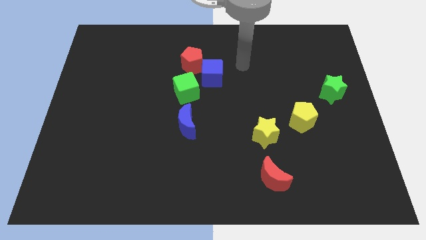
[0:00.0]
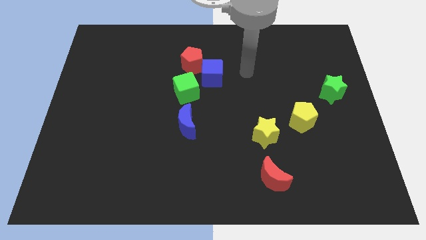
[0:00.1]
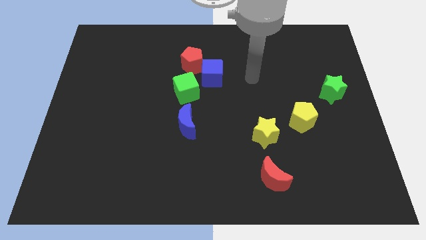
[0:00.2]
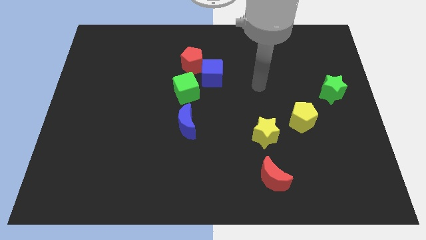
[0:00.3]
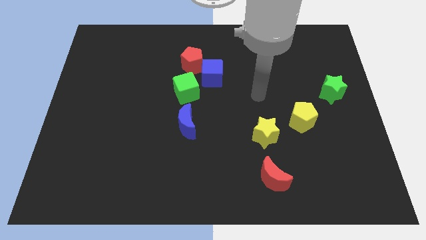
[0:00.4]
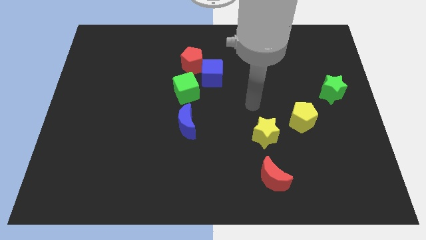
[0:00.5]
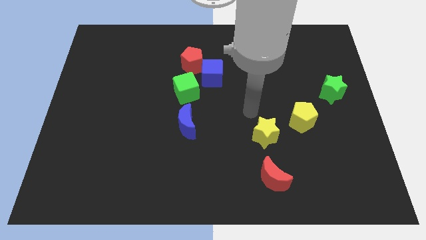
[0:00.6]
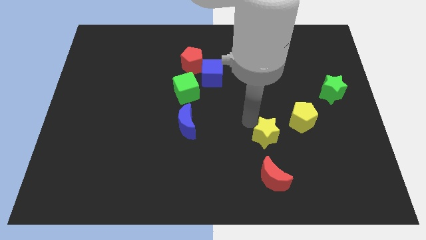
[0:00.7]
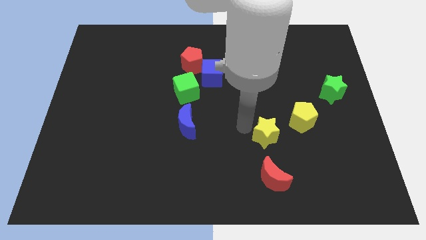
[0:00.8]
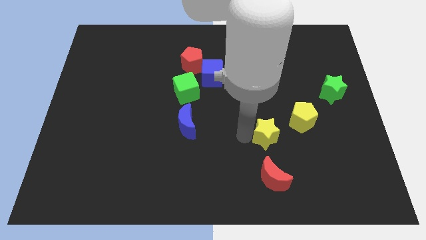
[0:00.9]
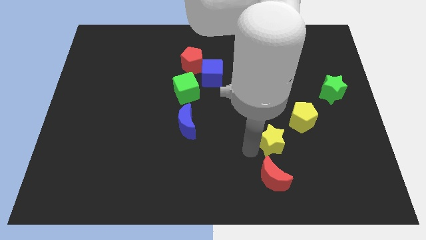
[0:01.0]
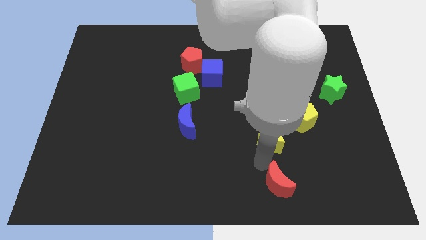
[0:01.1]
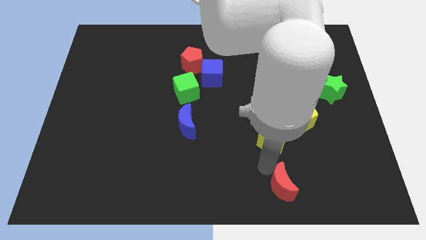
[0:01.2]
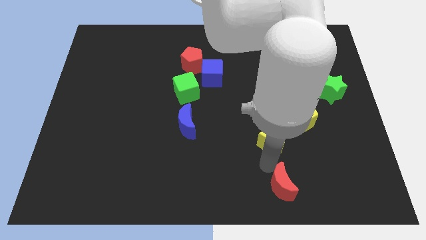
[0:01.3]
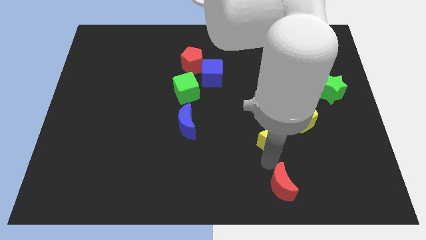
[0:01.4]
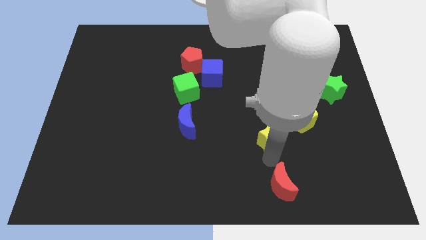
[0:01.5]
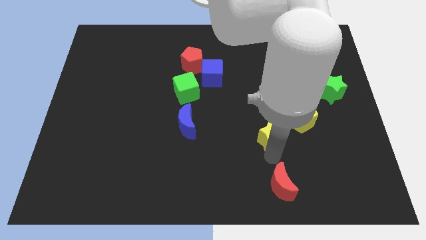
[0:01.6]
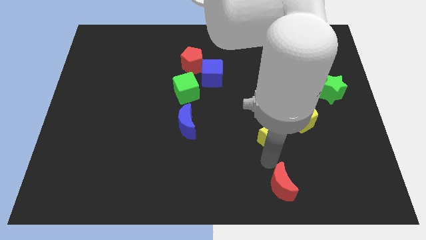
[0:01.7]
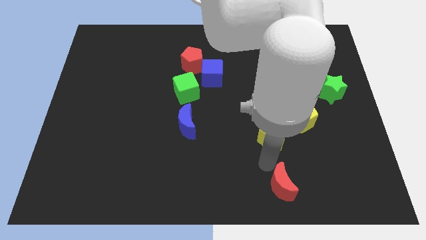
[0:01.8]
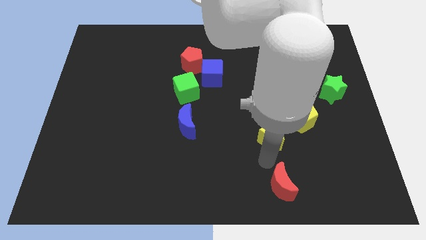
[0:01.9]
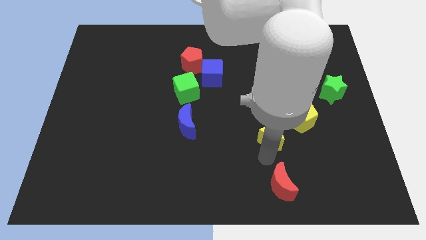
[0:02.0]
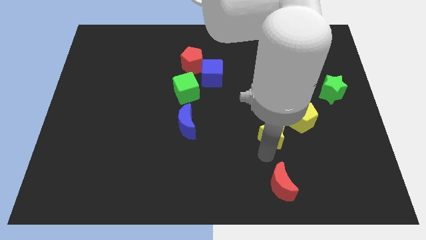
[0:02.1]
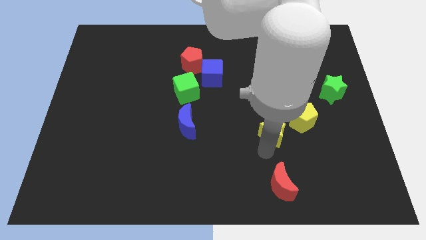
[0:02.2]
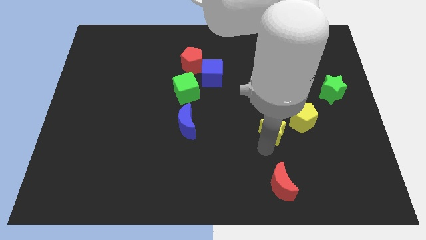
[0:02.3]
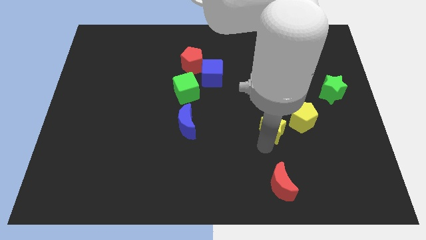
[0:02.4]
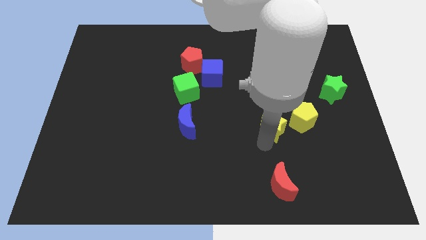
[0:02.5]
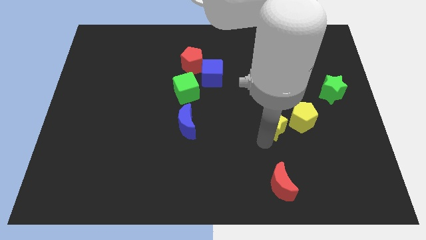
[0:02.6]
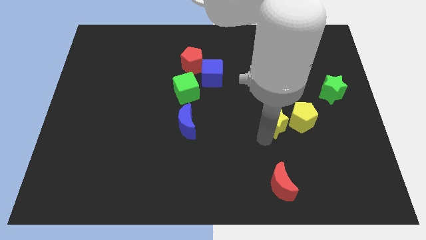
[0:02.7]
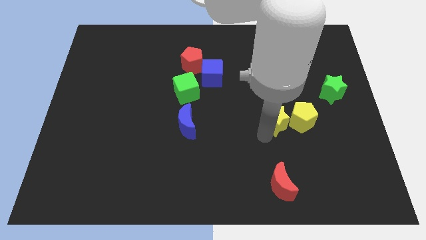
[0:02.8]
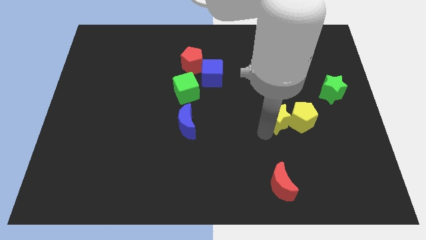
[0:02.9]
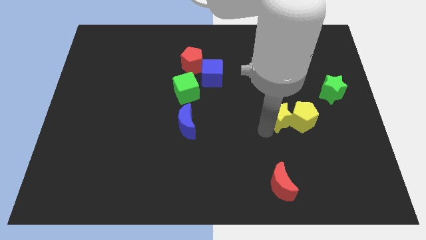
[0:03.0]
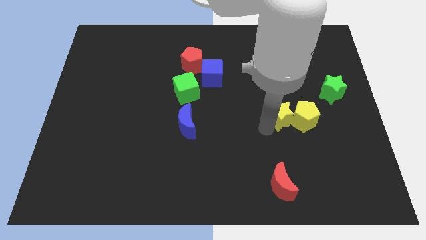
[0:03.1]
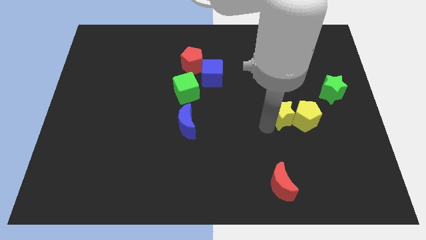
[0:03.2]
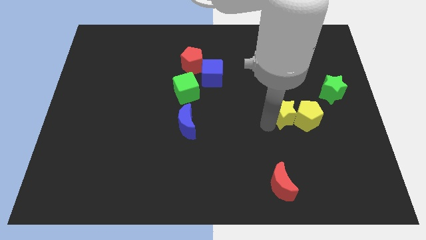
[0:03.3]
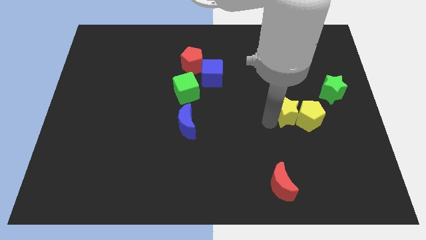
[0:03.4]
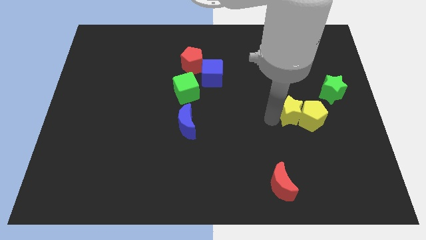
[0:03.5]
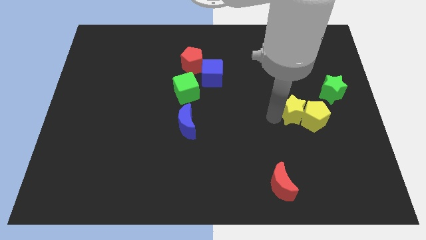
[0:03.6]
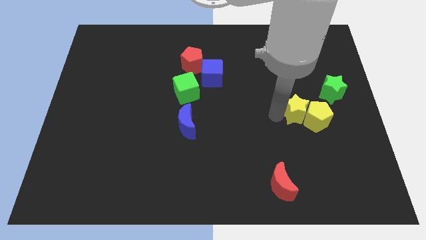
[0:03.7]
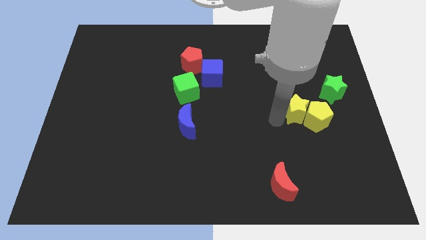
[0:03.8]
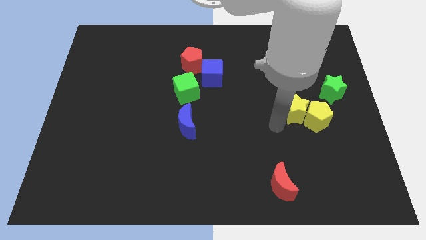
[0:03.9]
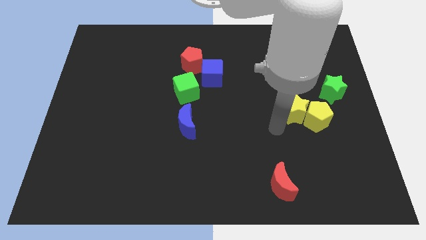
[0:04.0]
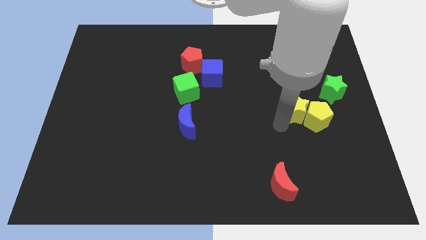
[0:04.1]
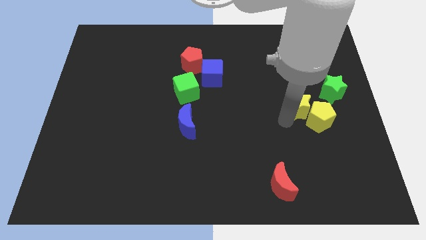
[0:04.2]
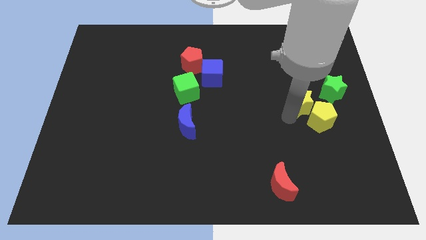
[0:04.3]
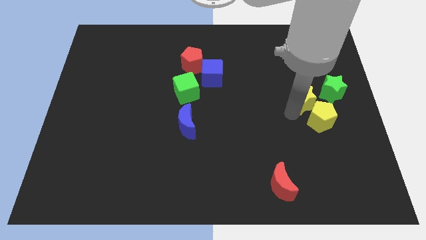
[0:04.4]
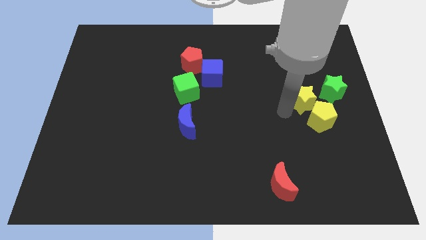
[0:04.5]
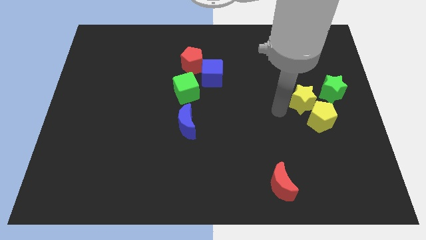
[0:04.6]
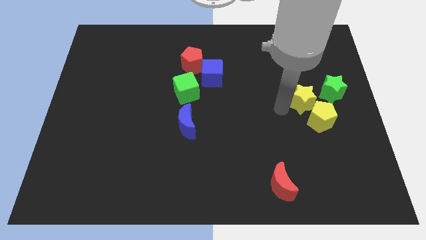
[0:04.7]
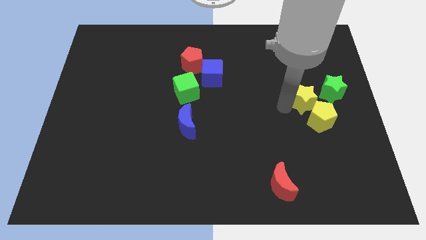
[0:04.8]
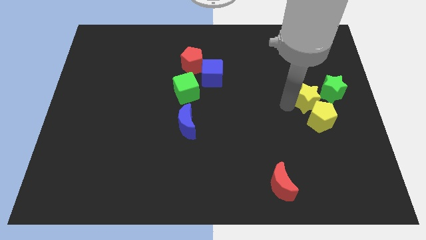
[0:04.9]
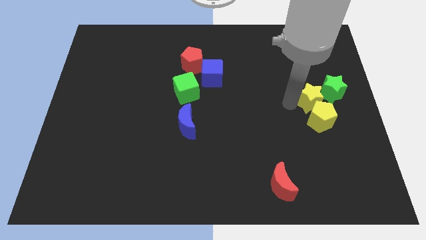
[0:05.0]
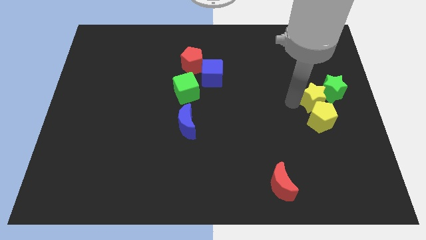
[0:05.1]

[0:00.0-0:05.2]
slide the yellow star to the green star

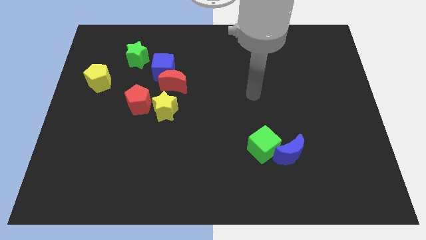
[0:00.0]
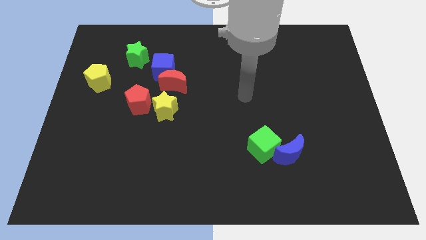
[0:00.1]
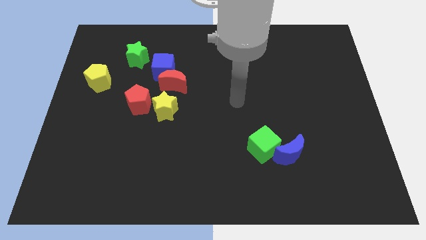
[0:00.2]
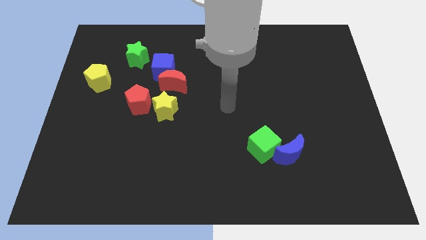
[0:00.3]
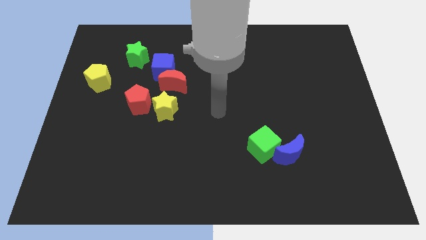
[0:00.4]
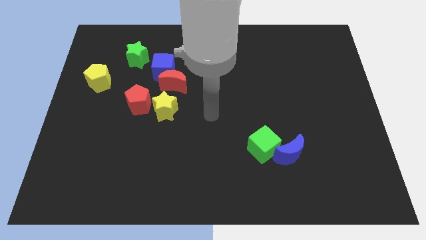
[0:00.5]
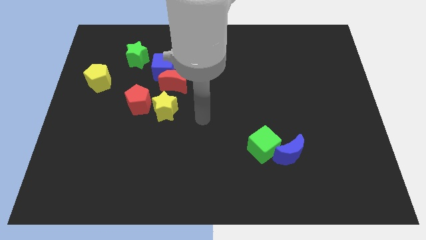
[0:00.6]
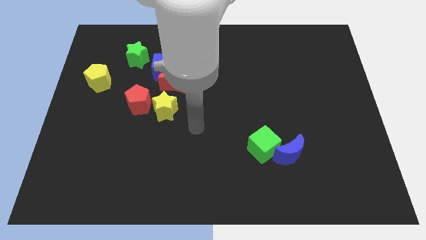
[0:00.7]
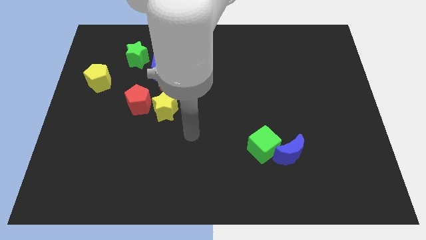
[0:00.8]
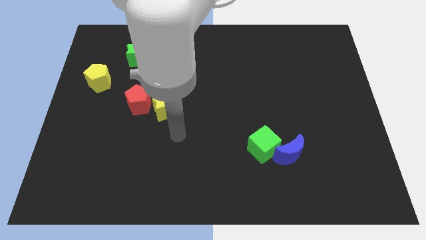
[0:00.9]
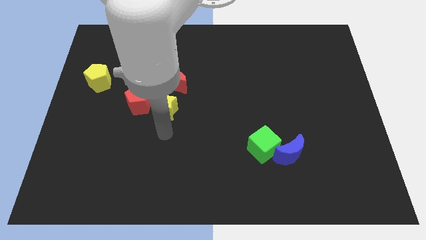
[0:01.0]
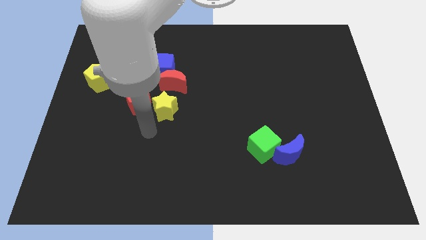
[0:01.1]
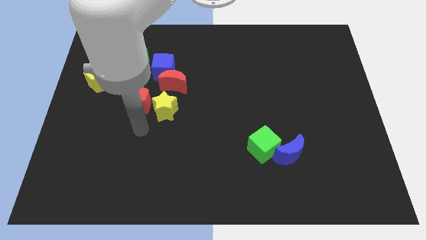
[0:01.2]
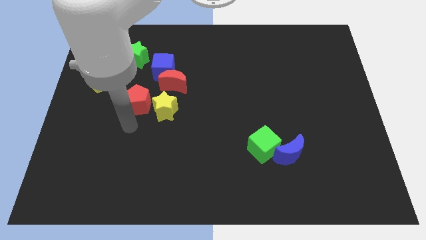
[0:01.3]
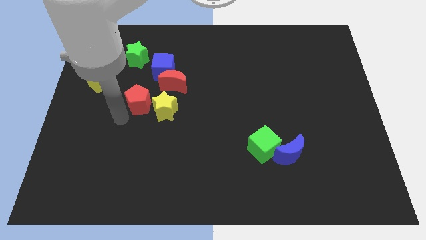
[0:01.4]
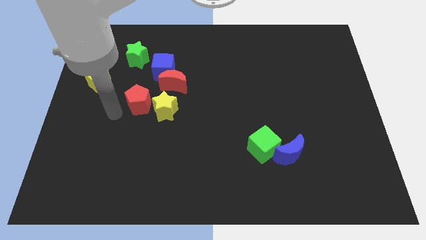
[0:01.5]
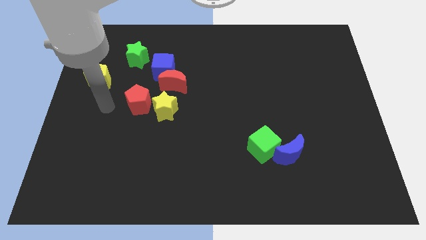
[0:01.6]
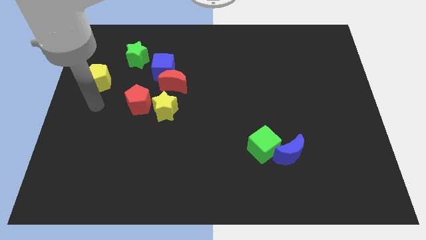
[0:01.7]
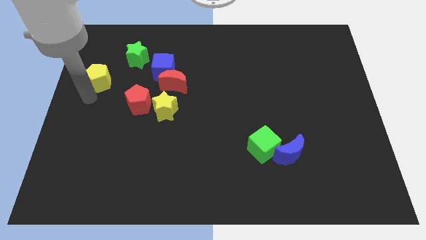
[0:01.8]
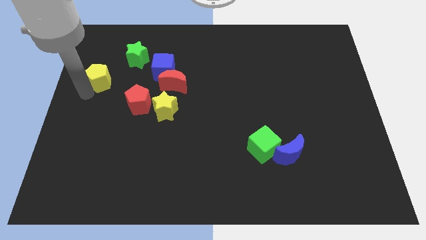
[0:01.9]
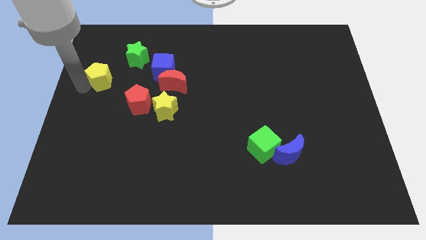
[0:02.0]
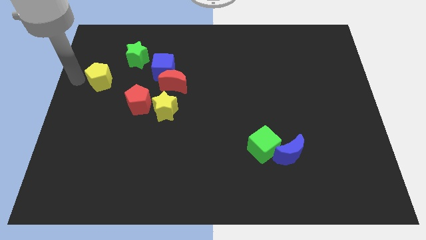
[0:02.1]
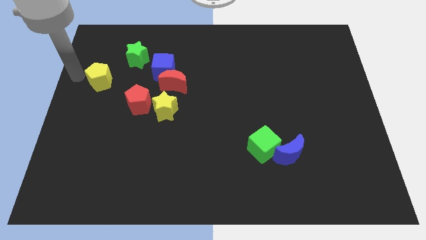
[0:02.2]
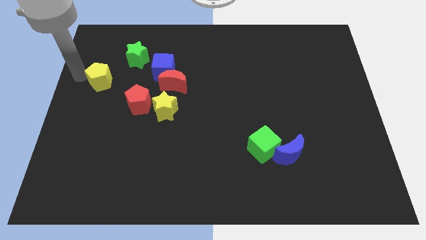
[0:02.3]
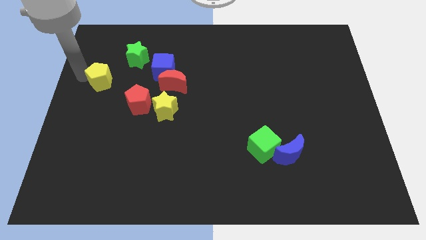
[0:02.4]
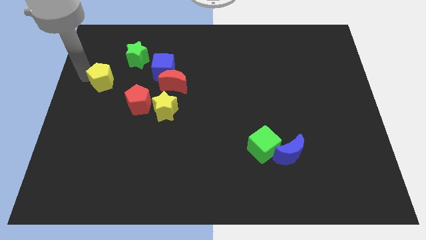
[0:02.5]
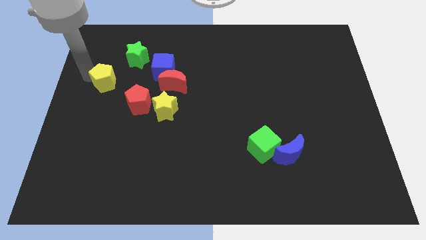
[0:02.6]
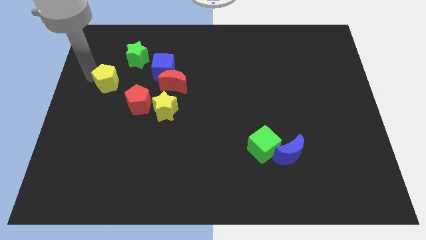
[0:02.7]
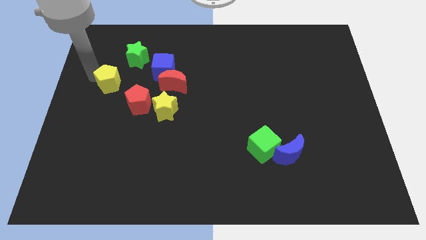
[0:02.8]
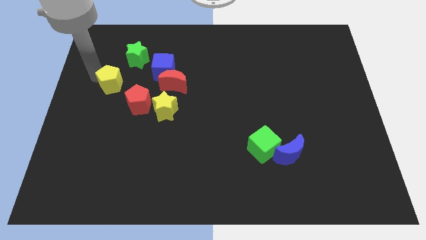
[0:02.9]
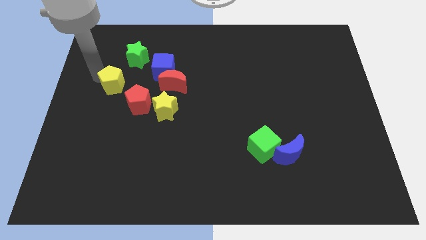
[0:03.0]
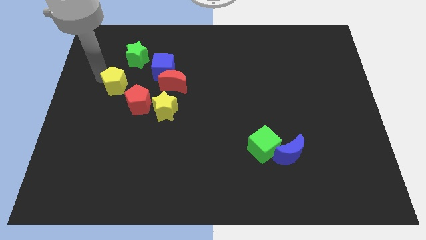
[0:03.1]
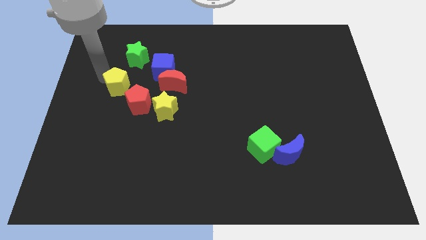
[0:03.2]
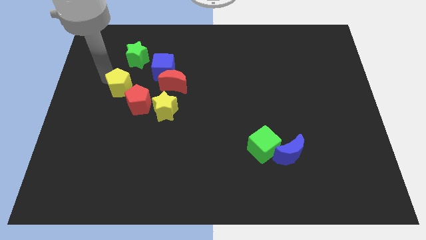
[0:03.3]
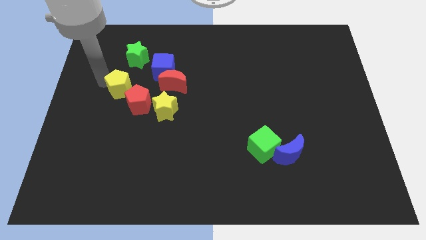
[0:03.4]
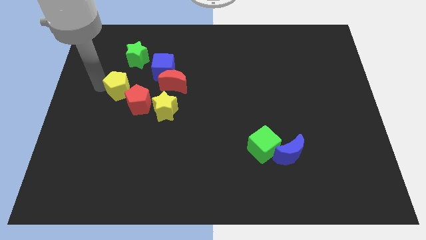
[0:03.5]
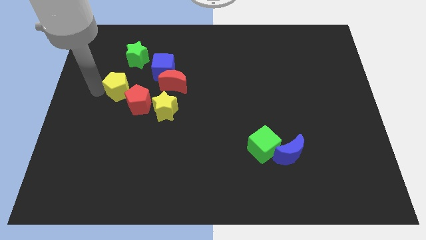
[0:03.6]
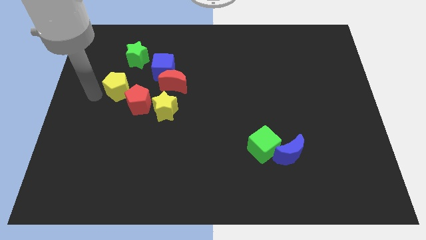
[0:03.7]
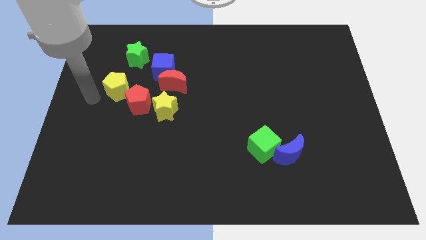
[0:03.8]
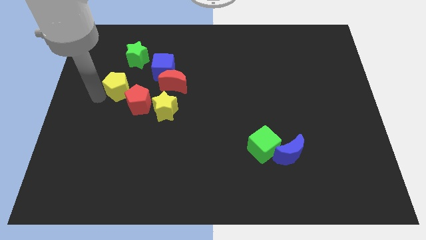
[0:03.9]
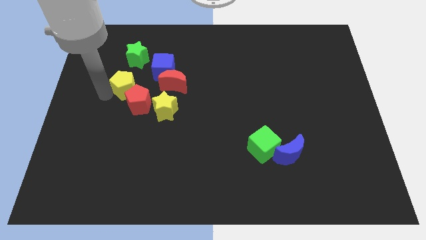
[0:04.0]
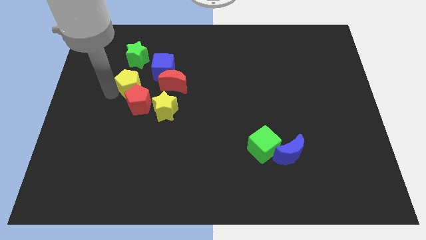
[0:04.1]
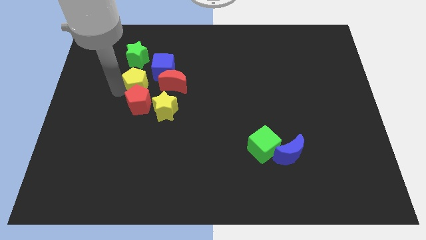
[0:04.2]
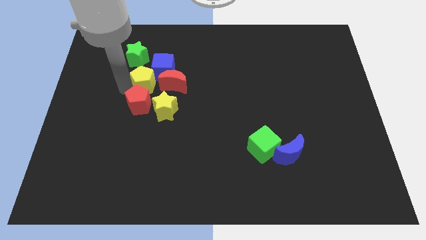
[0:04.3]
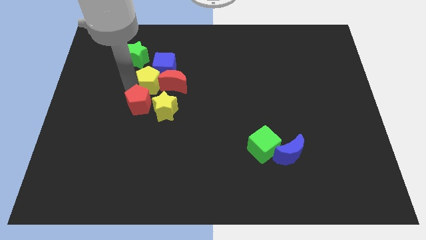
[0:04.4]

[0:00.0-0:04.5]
put the yellow pentagon to the red moon
